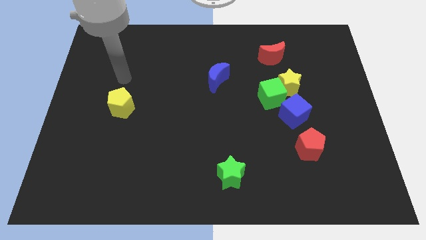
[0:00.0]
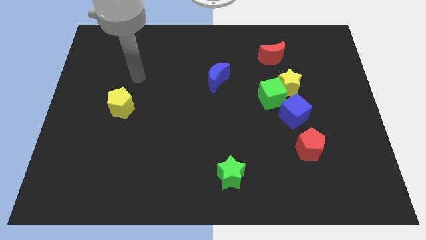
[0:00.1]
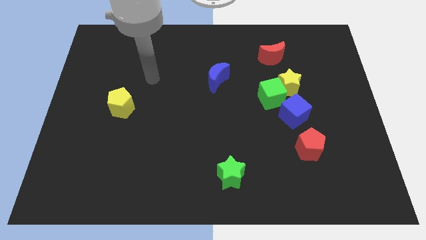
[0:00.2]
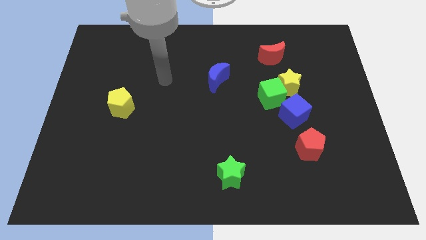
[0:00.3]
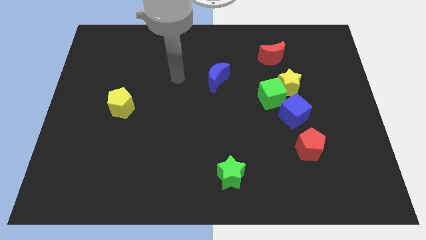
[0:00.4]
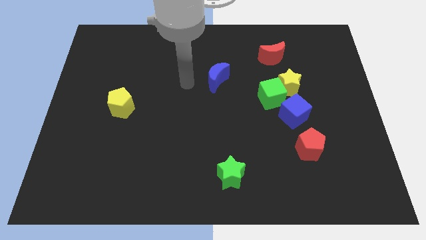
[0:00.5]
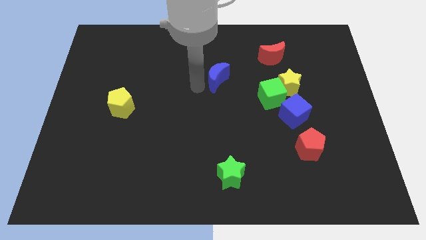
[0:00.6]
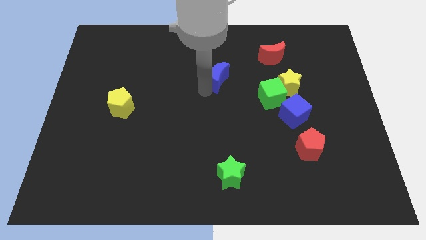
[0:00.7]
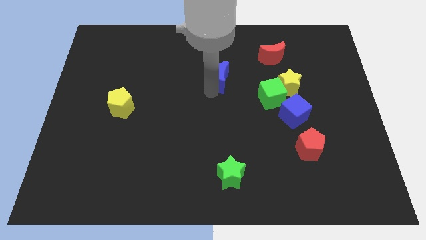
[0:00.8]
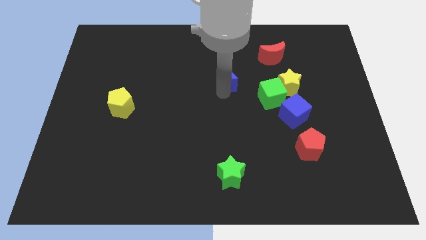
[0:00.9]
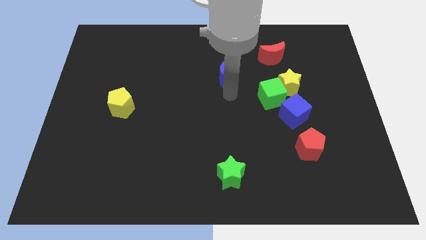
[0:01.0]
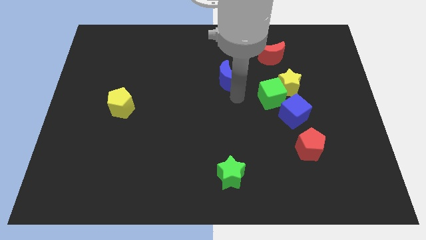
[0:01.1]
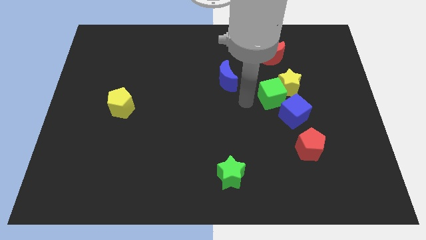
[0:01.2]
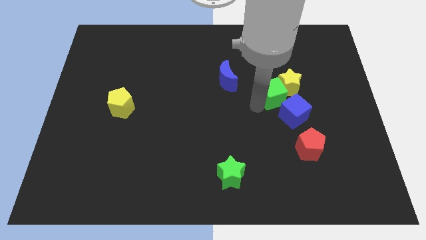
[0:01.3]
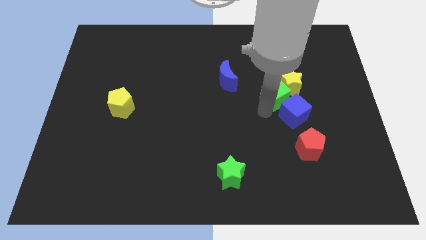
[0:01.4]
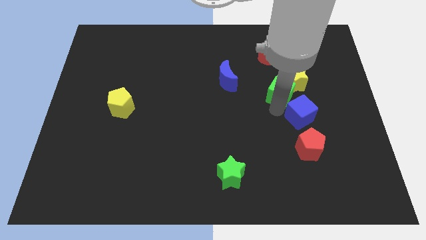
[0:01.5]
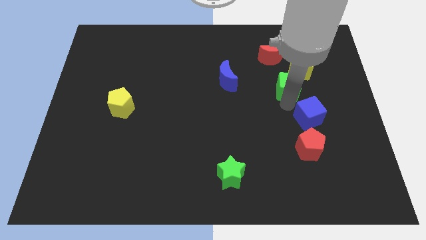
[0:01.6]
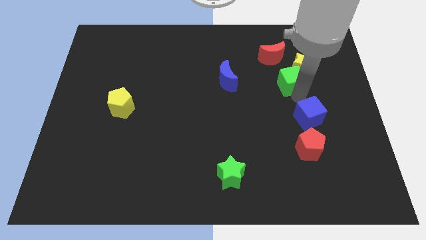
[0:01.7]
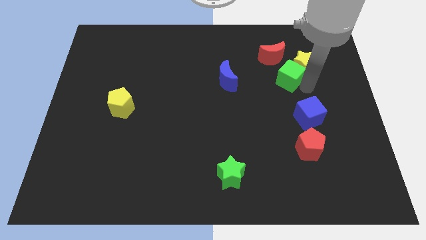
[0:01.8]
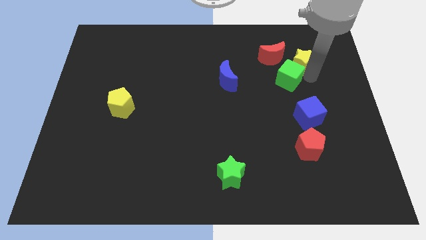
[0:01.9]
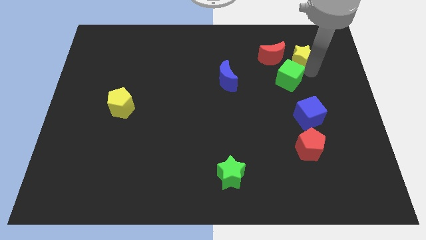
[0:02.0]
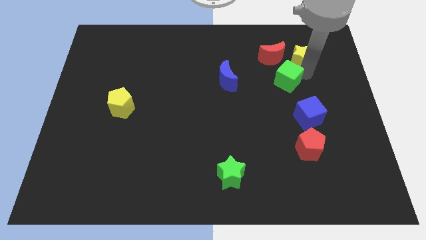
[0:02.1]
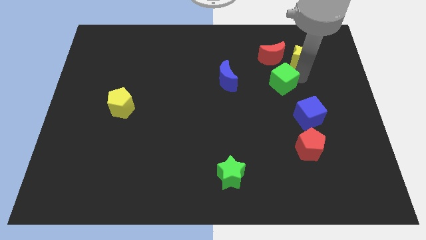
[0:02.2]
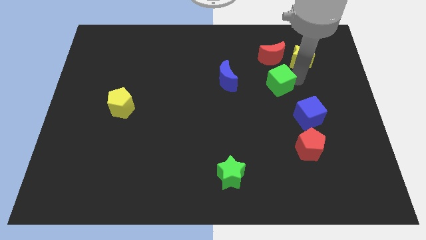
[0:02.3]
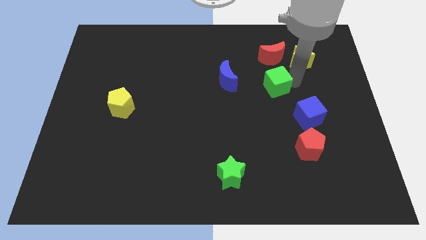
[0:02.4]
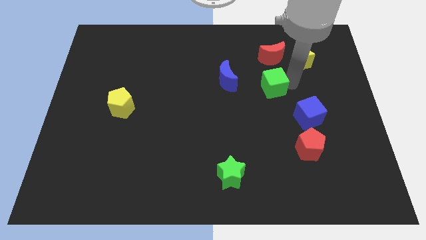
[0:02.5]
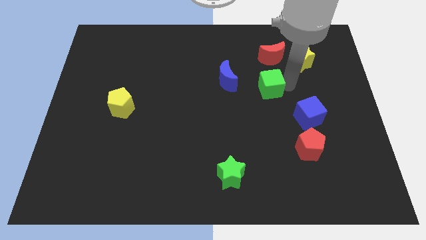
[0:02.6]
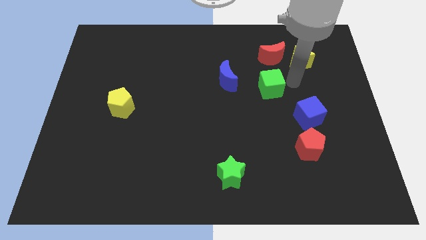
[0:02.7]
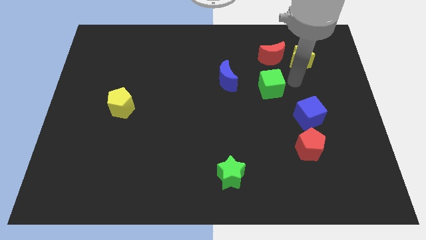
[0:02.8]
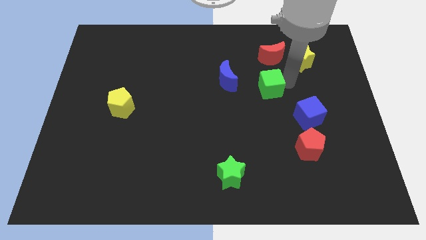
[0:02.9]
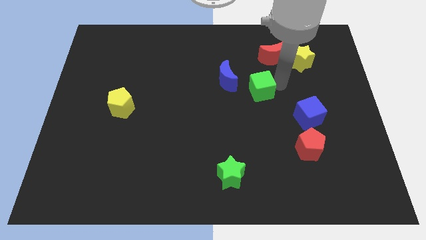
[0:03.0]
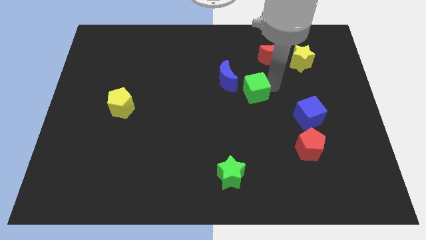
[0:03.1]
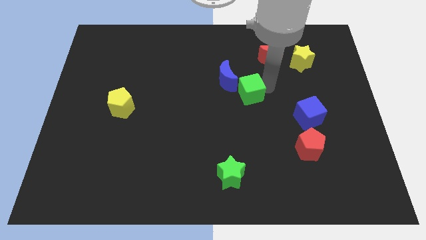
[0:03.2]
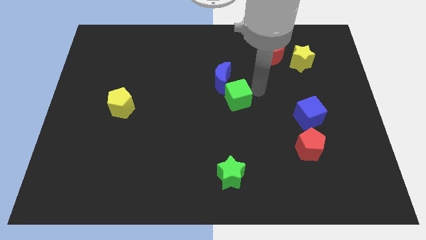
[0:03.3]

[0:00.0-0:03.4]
slightly move the green cube to the left

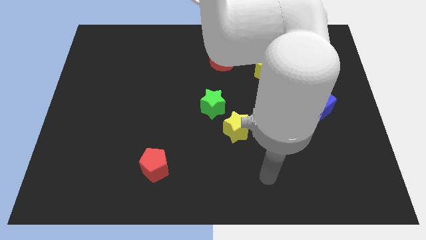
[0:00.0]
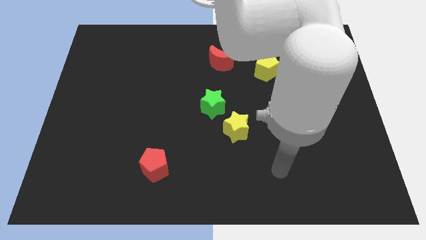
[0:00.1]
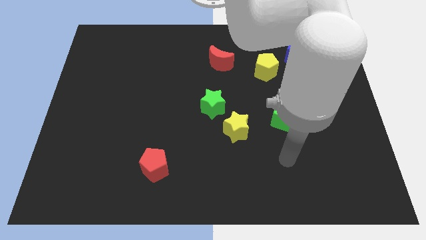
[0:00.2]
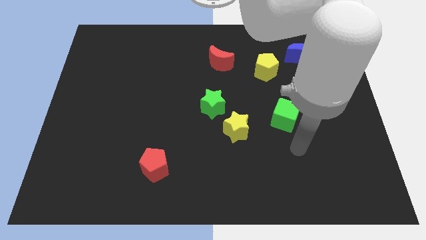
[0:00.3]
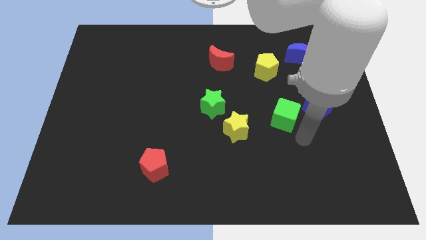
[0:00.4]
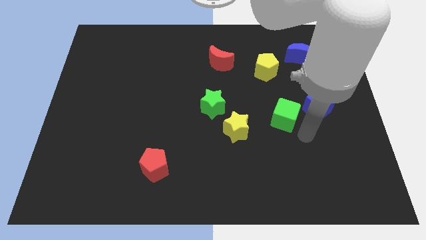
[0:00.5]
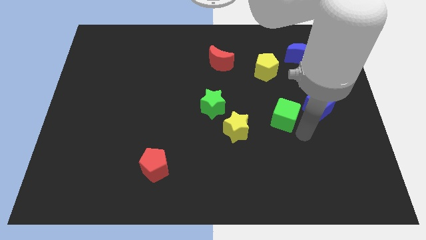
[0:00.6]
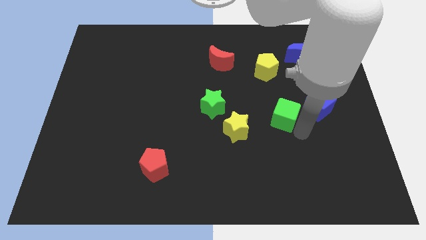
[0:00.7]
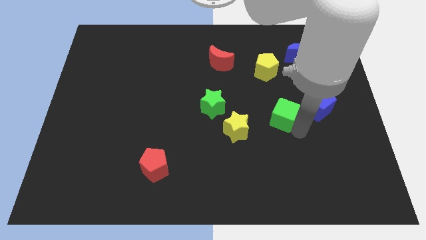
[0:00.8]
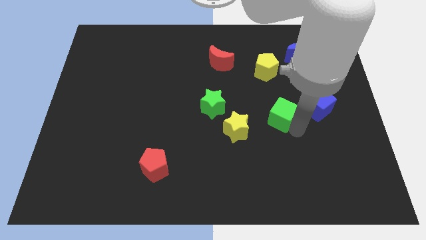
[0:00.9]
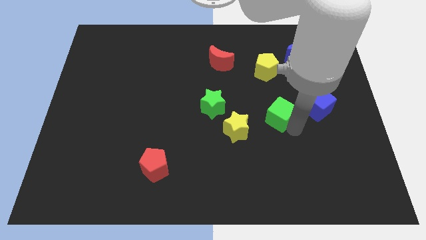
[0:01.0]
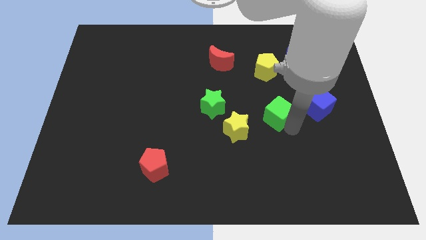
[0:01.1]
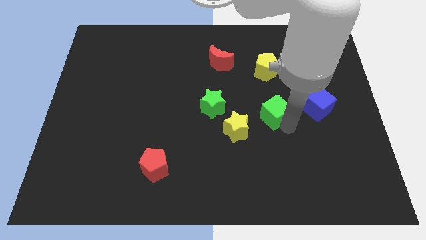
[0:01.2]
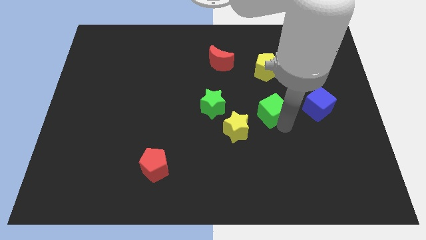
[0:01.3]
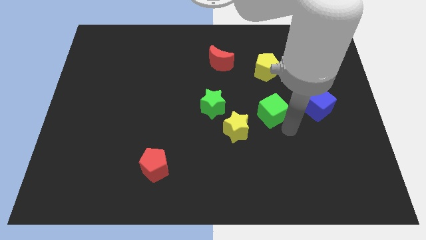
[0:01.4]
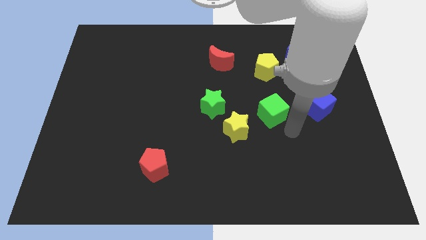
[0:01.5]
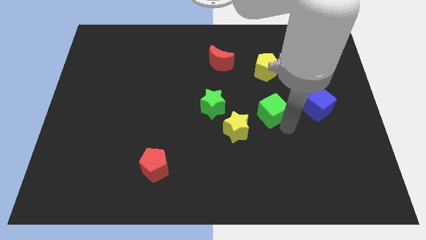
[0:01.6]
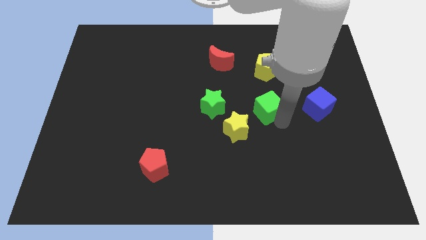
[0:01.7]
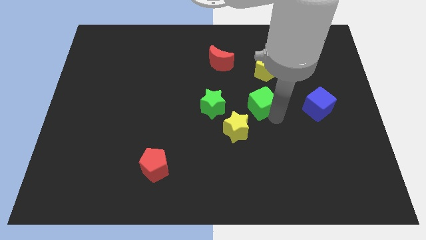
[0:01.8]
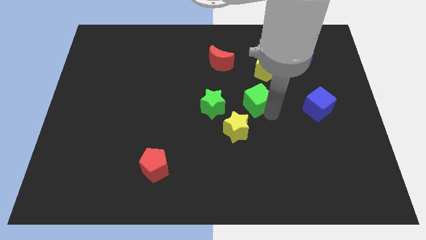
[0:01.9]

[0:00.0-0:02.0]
slightly push the green cube up and then left

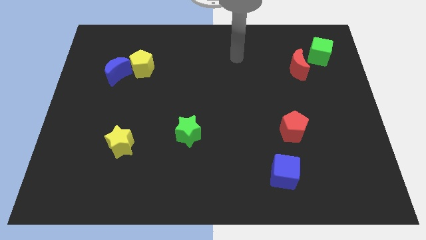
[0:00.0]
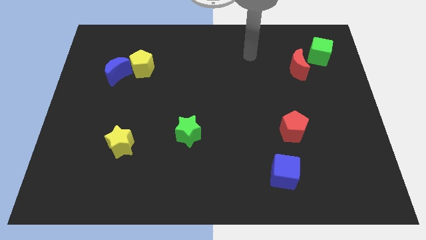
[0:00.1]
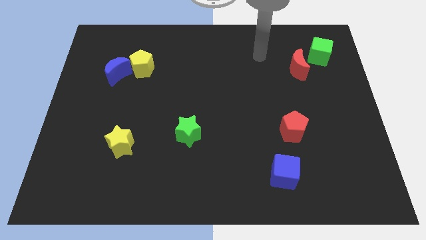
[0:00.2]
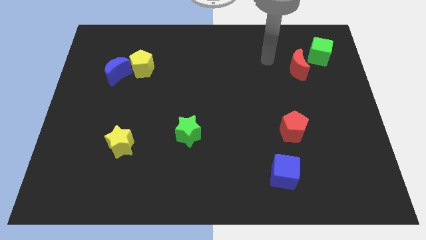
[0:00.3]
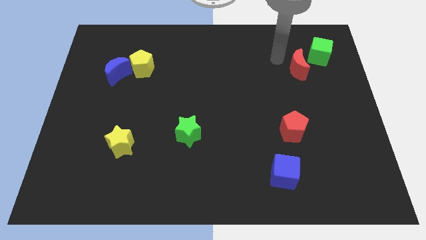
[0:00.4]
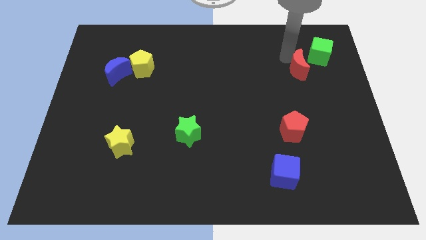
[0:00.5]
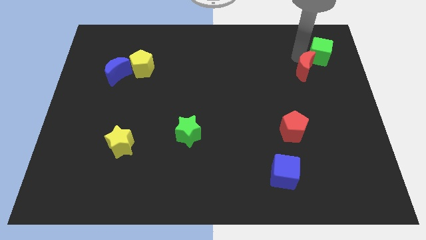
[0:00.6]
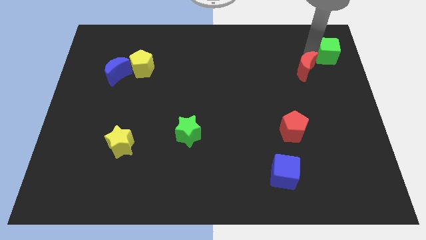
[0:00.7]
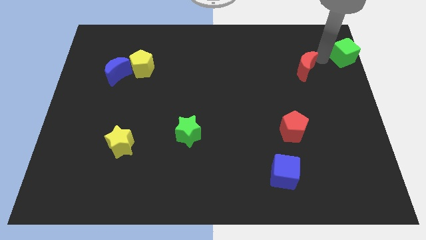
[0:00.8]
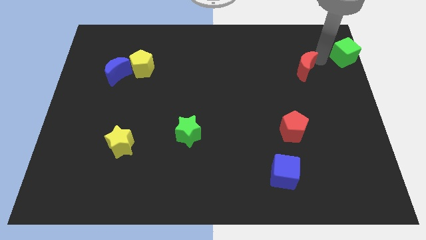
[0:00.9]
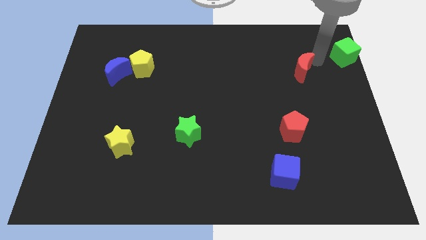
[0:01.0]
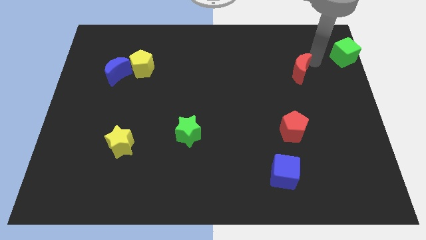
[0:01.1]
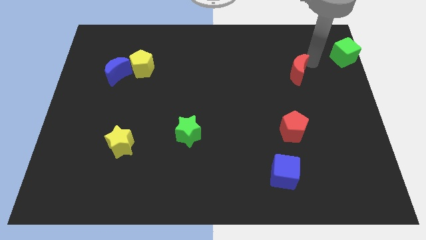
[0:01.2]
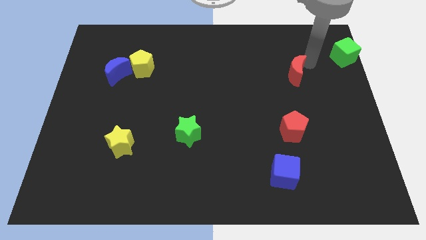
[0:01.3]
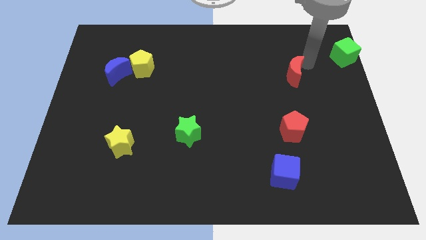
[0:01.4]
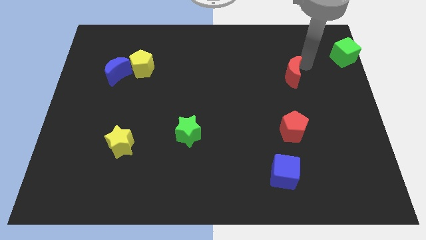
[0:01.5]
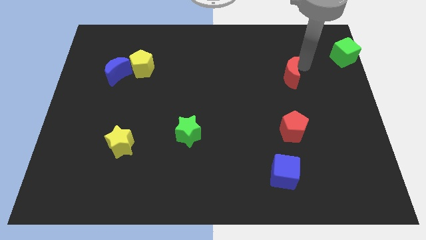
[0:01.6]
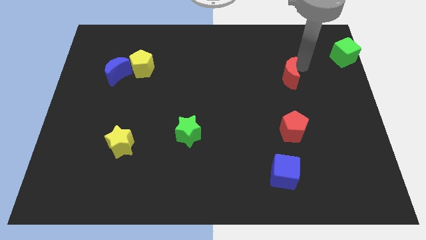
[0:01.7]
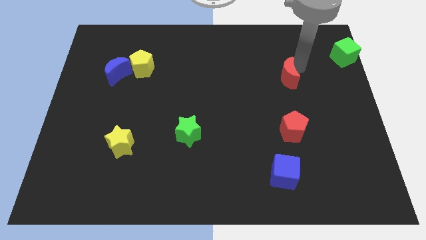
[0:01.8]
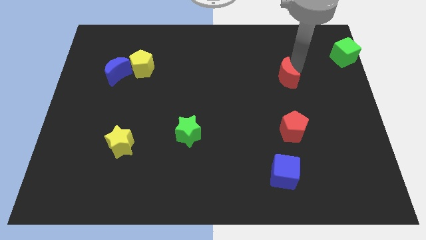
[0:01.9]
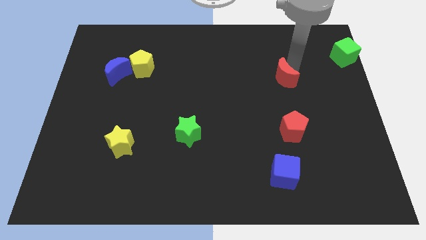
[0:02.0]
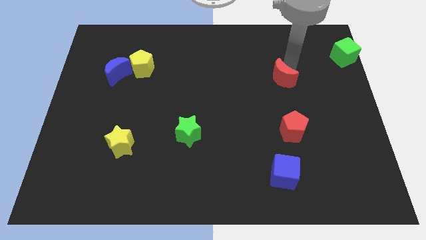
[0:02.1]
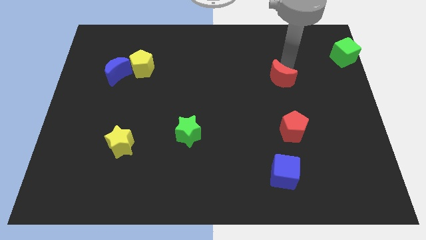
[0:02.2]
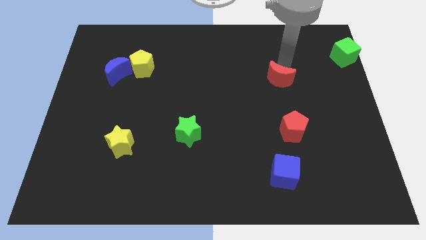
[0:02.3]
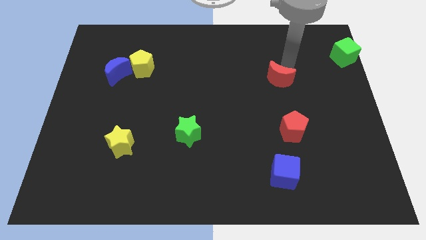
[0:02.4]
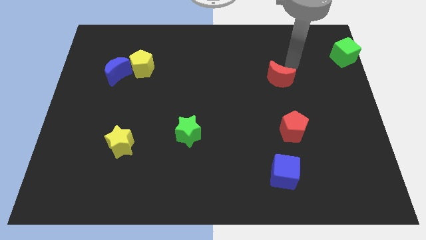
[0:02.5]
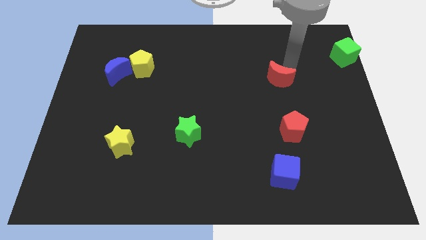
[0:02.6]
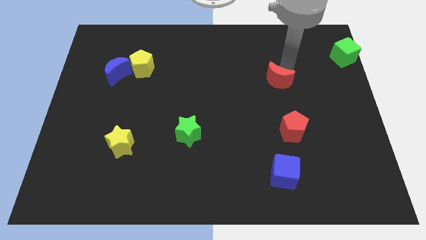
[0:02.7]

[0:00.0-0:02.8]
slightly slide the red moon downwards and to the left
